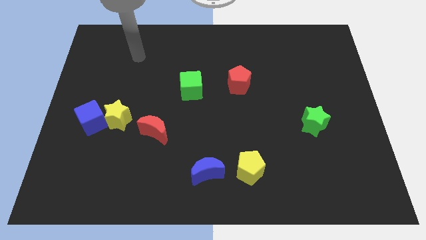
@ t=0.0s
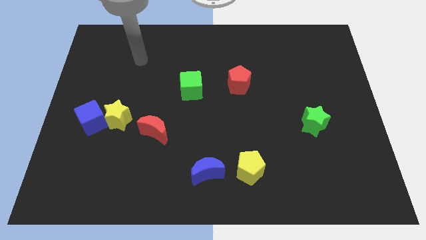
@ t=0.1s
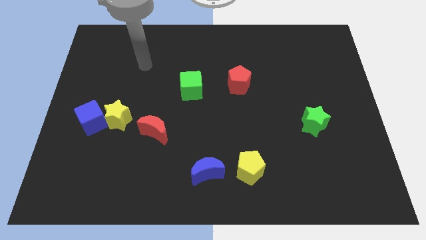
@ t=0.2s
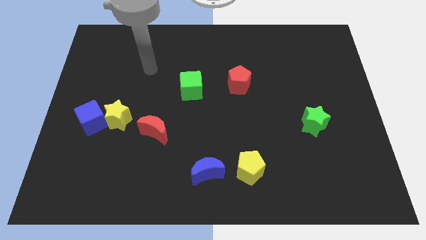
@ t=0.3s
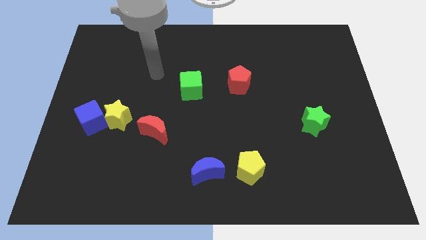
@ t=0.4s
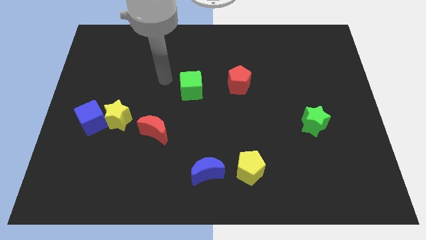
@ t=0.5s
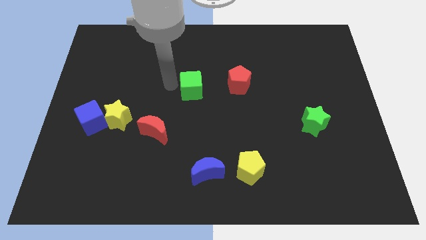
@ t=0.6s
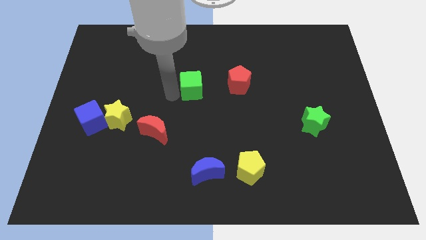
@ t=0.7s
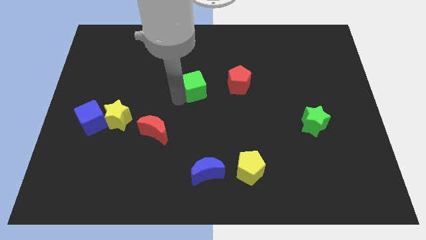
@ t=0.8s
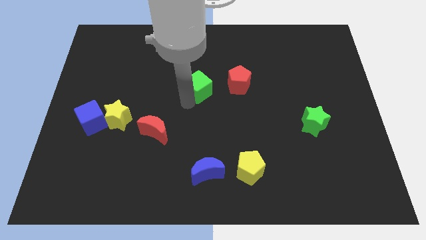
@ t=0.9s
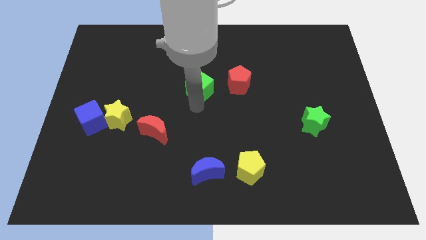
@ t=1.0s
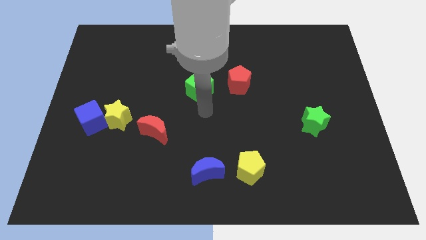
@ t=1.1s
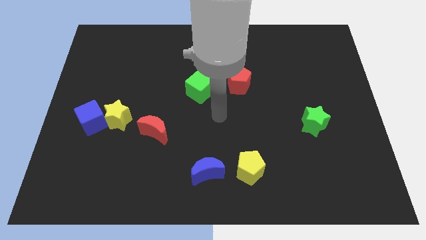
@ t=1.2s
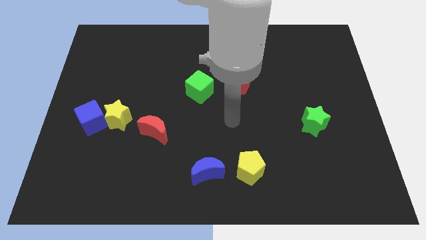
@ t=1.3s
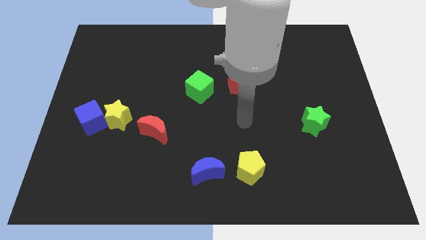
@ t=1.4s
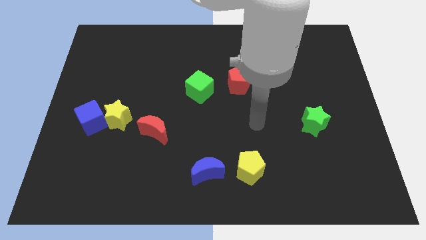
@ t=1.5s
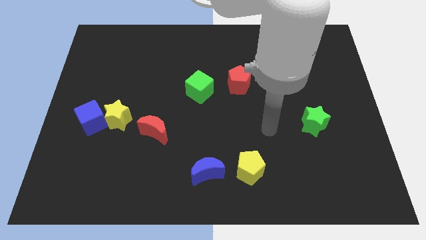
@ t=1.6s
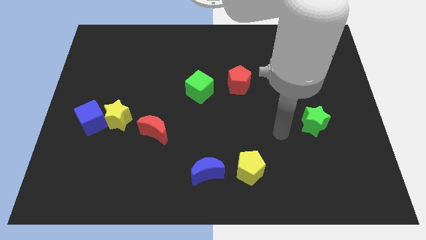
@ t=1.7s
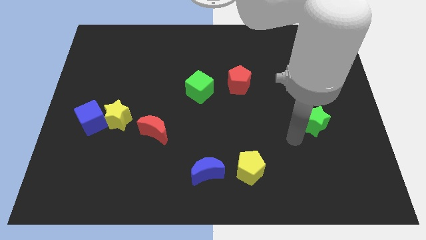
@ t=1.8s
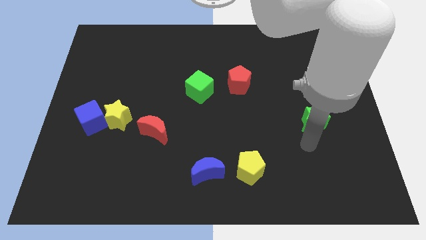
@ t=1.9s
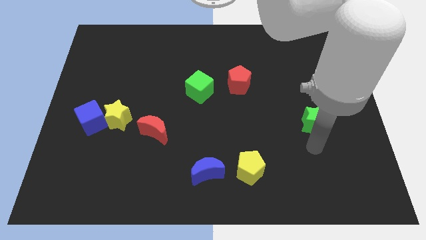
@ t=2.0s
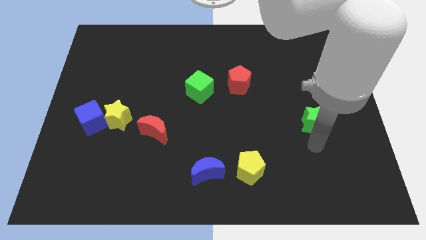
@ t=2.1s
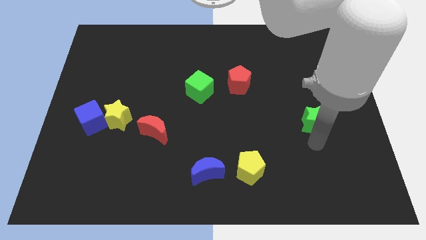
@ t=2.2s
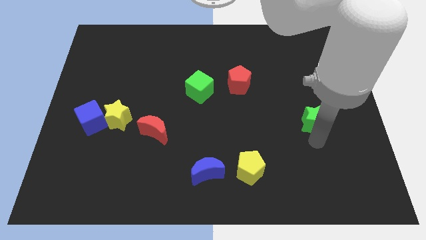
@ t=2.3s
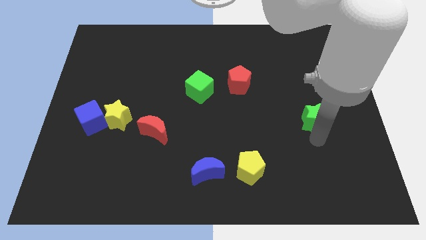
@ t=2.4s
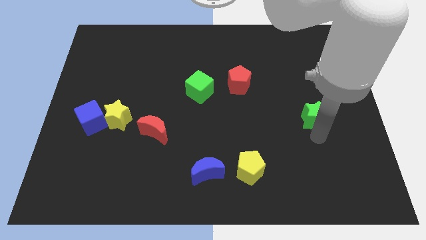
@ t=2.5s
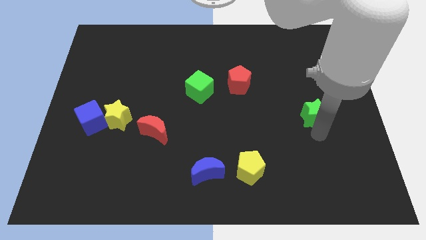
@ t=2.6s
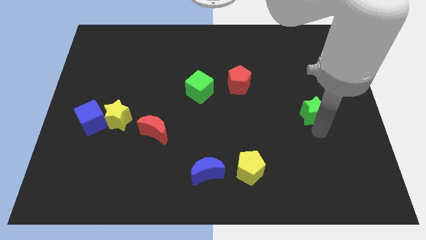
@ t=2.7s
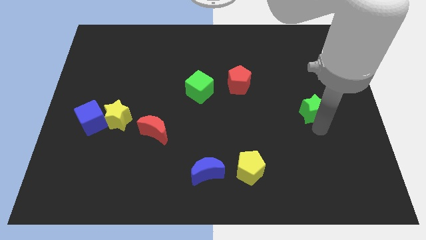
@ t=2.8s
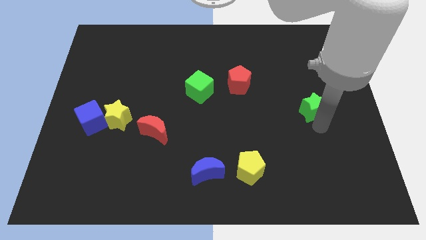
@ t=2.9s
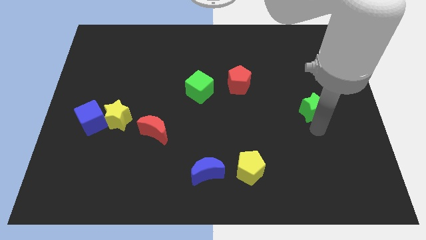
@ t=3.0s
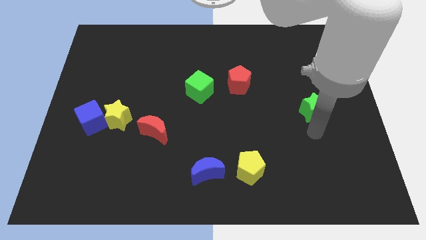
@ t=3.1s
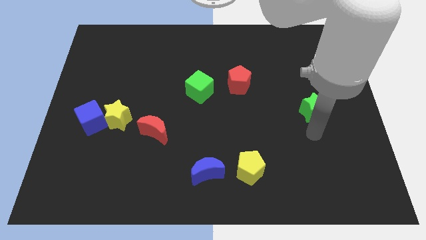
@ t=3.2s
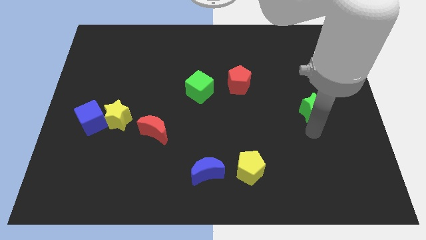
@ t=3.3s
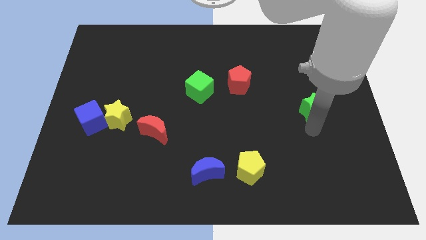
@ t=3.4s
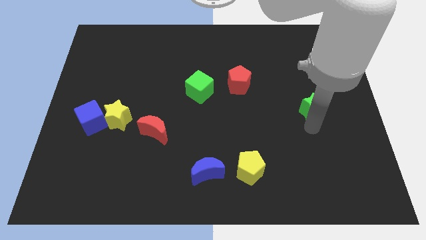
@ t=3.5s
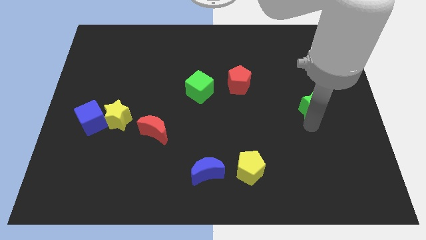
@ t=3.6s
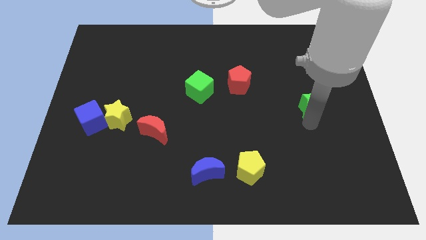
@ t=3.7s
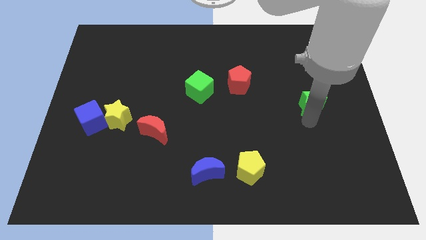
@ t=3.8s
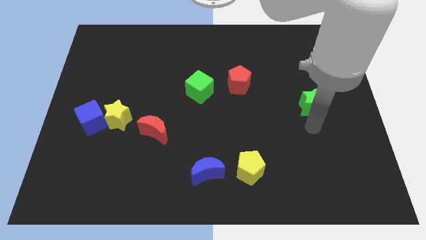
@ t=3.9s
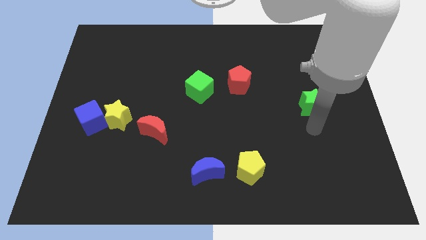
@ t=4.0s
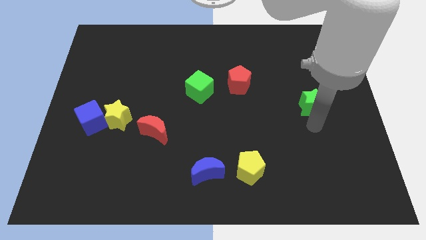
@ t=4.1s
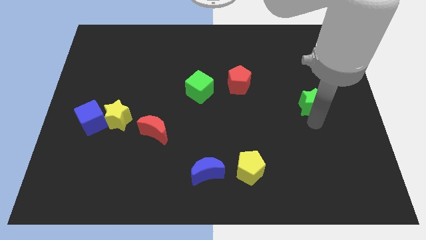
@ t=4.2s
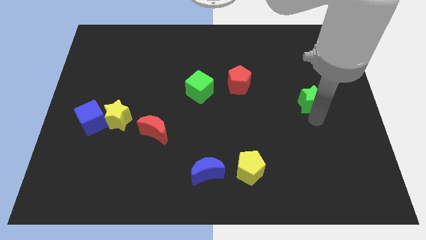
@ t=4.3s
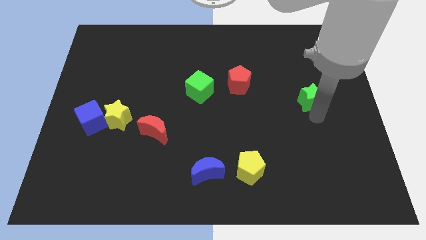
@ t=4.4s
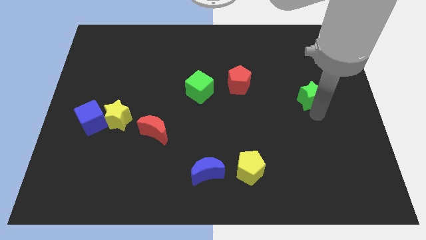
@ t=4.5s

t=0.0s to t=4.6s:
slightly slide the green star up

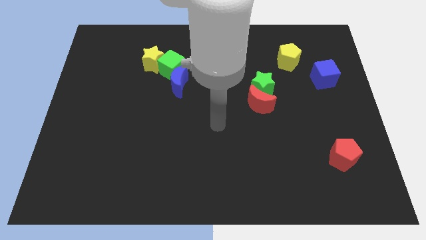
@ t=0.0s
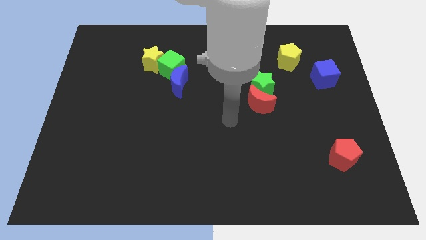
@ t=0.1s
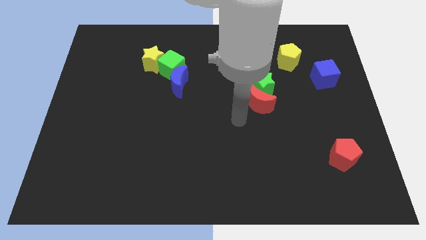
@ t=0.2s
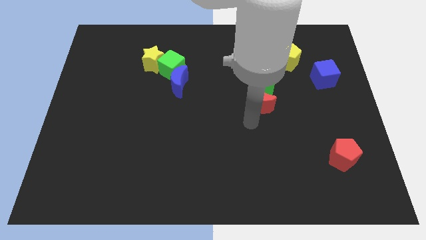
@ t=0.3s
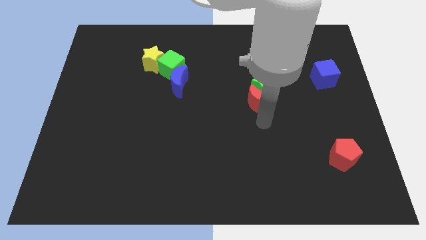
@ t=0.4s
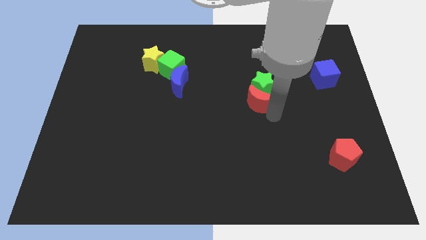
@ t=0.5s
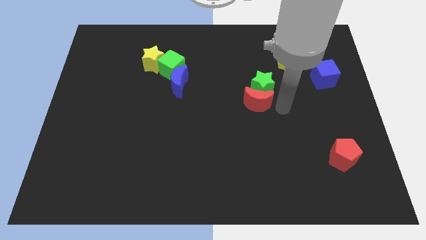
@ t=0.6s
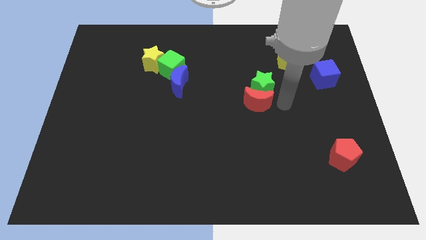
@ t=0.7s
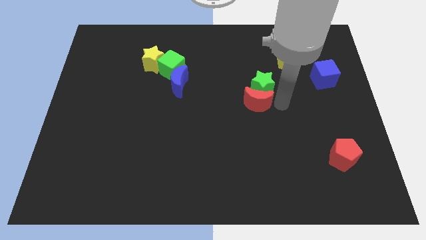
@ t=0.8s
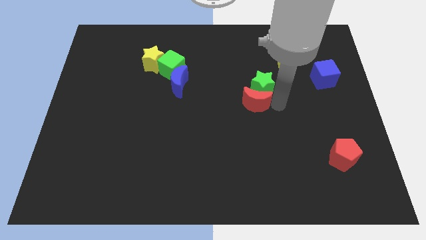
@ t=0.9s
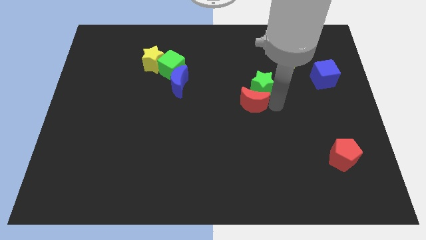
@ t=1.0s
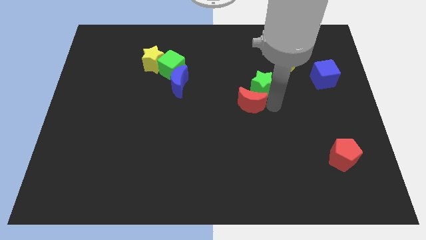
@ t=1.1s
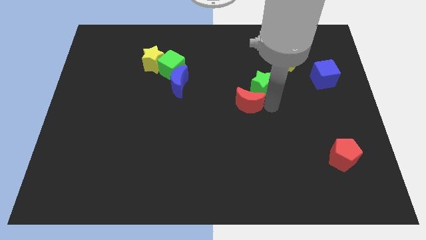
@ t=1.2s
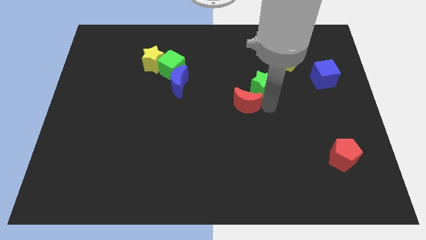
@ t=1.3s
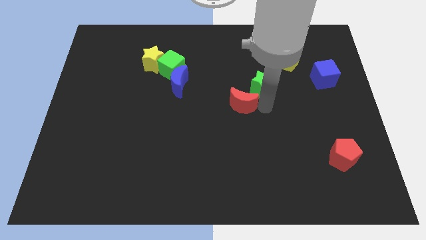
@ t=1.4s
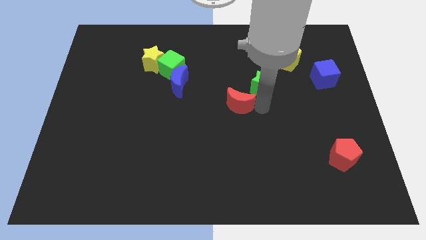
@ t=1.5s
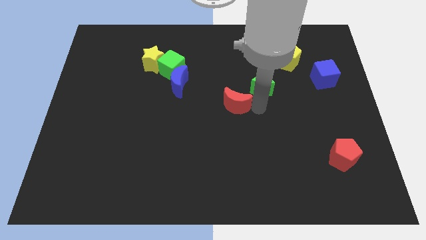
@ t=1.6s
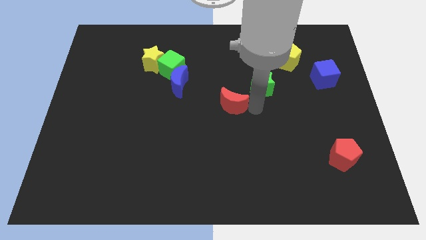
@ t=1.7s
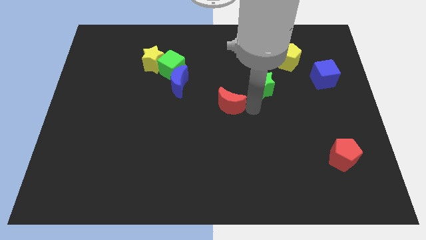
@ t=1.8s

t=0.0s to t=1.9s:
slide the red moon a little bit left

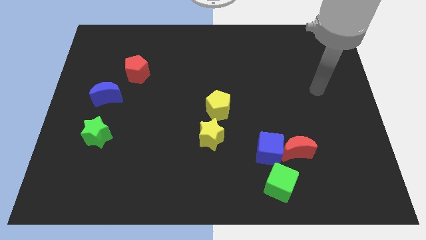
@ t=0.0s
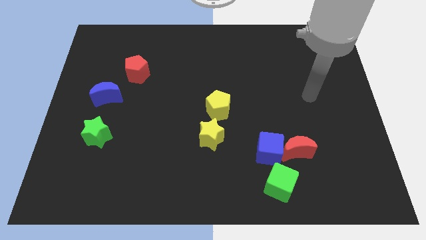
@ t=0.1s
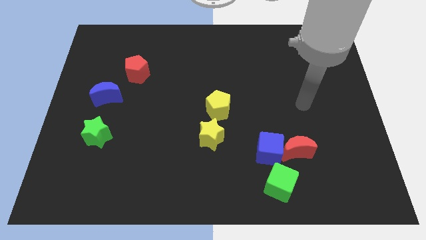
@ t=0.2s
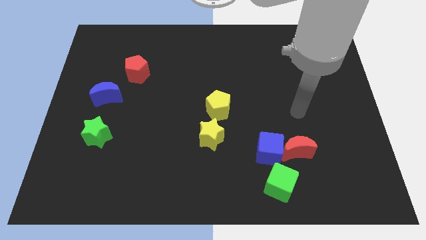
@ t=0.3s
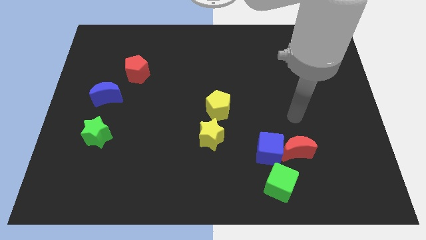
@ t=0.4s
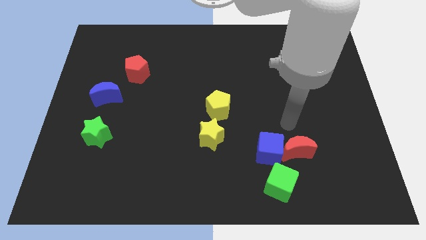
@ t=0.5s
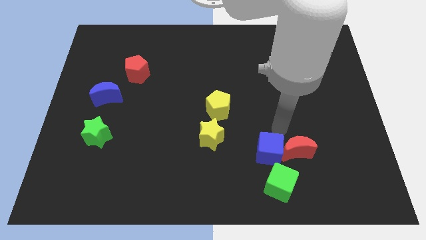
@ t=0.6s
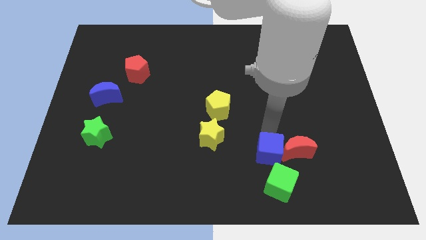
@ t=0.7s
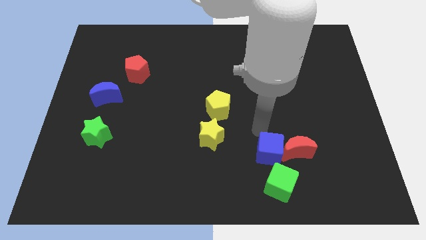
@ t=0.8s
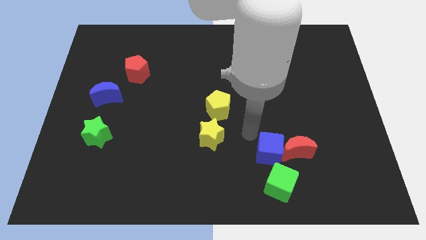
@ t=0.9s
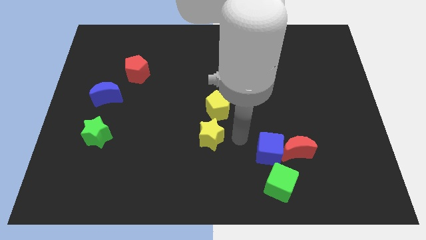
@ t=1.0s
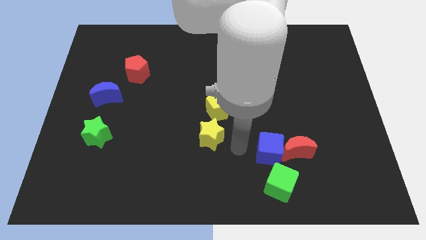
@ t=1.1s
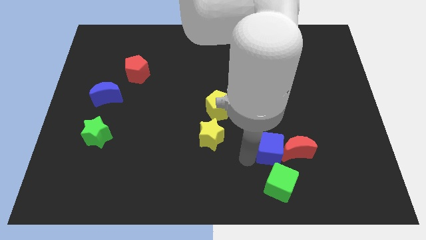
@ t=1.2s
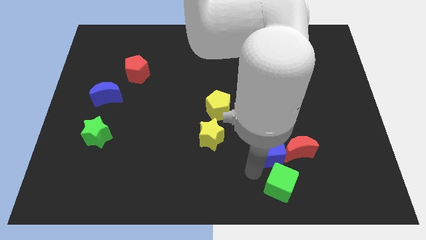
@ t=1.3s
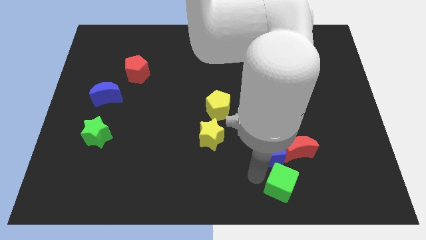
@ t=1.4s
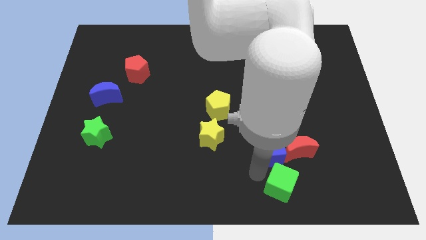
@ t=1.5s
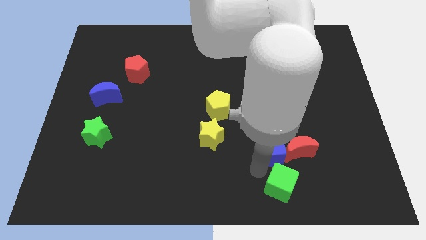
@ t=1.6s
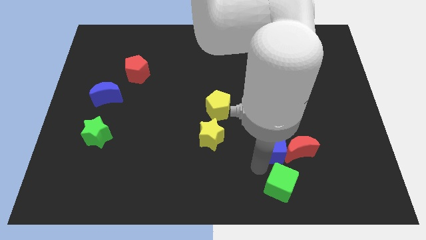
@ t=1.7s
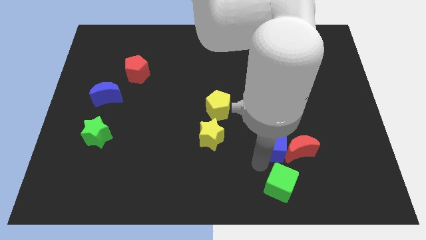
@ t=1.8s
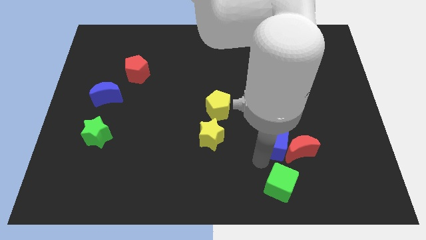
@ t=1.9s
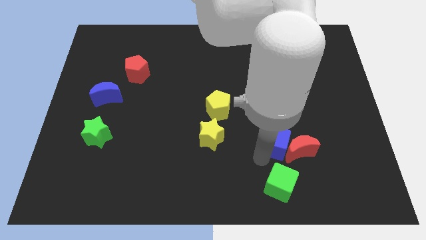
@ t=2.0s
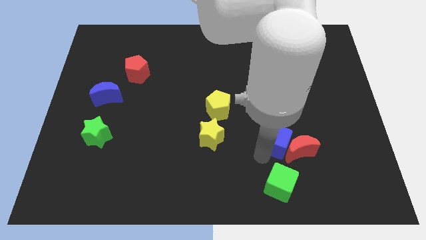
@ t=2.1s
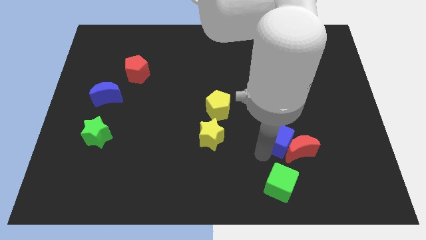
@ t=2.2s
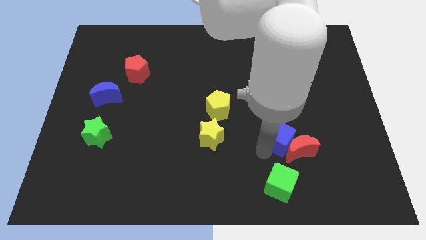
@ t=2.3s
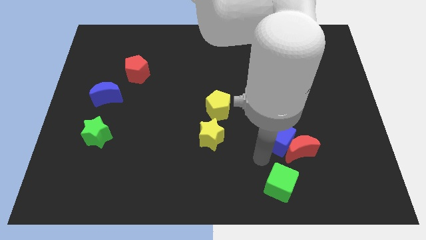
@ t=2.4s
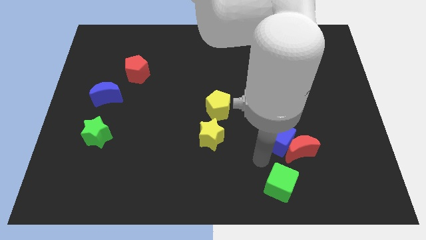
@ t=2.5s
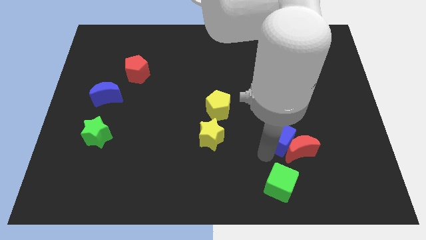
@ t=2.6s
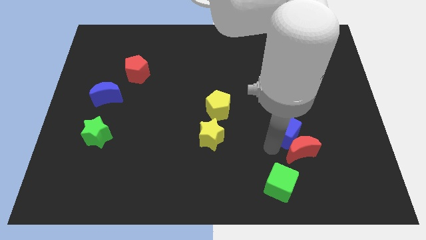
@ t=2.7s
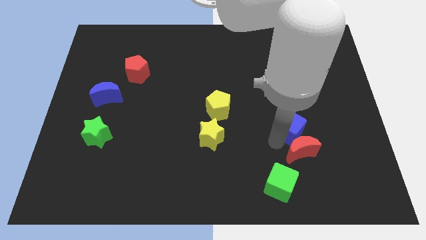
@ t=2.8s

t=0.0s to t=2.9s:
slightly push the blue cube up and to the right
